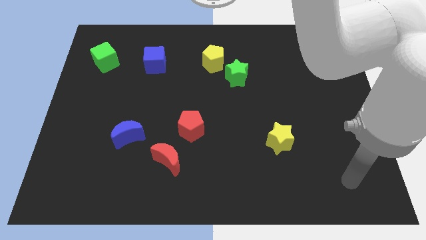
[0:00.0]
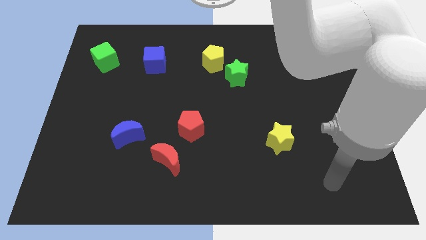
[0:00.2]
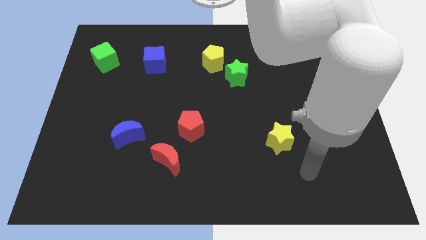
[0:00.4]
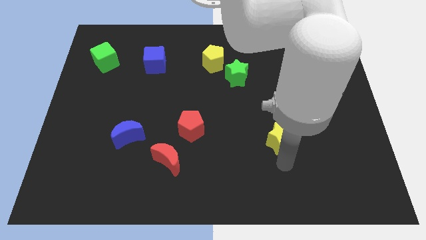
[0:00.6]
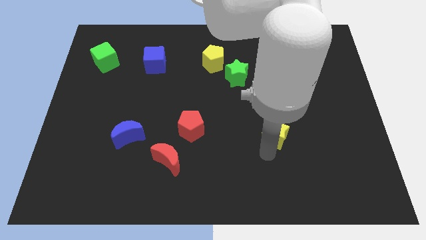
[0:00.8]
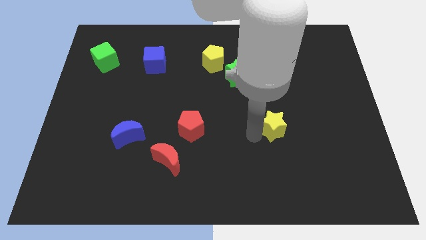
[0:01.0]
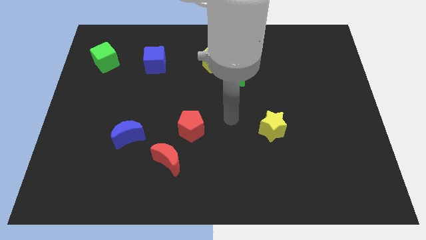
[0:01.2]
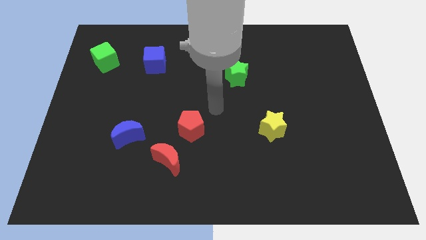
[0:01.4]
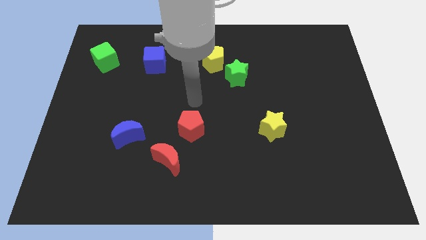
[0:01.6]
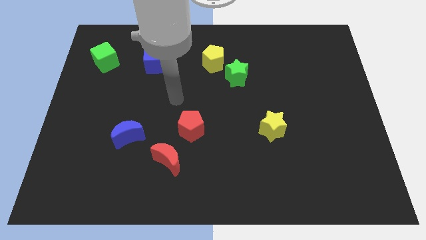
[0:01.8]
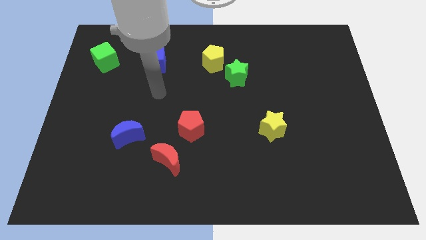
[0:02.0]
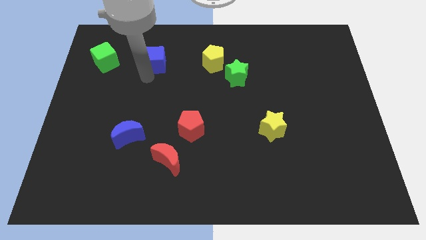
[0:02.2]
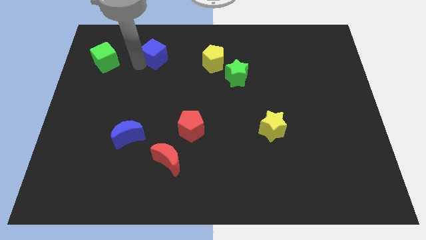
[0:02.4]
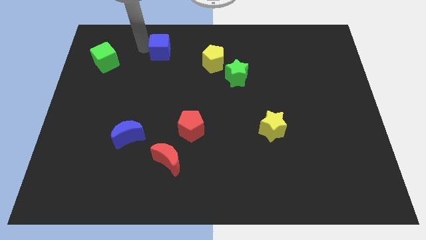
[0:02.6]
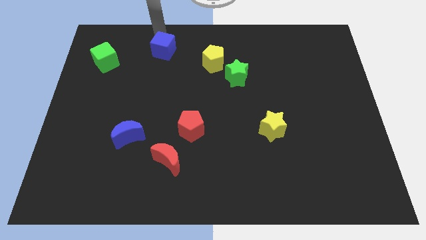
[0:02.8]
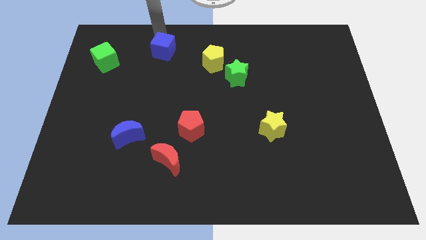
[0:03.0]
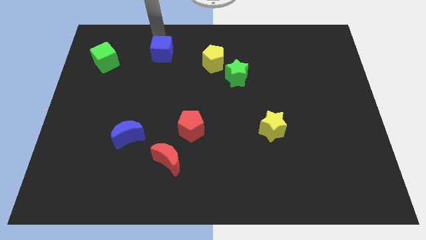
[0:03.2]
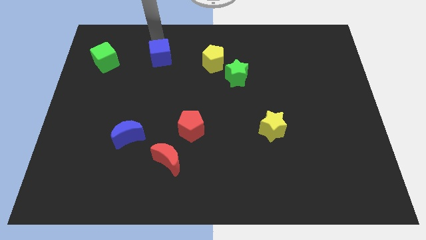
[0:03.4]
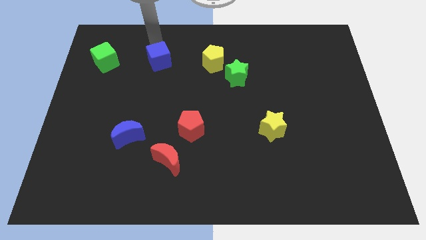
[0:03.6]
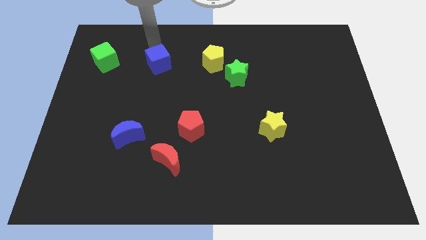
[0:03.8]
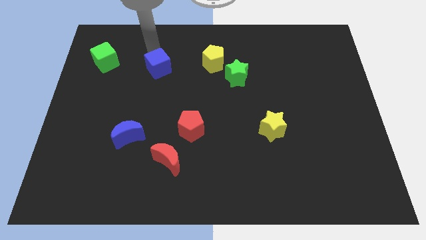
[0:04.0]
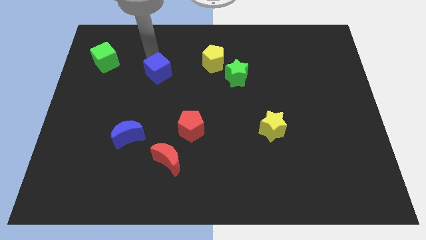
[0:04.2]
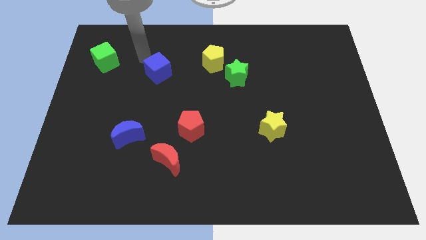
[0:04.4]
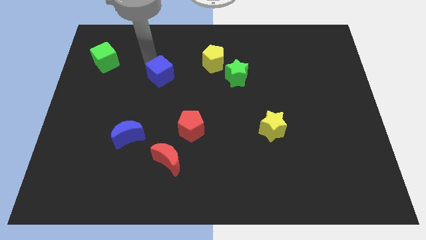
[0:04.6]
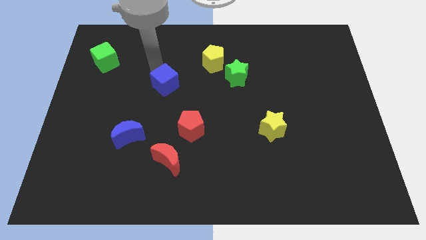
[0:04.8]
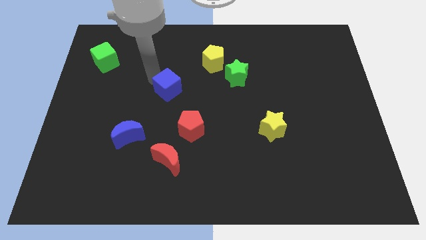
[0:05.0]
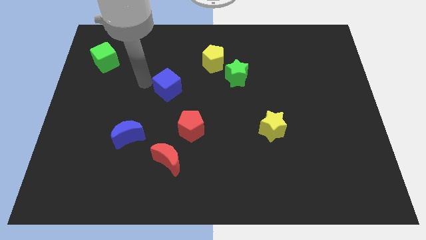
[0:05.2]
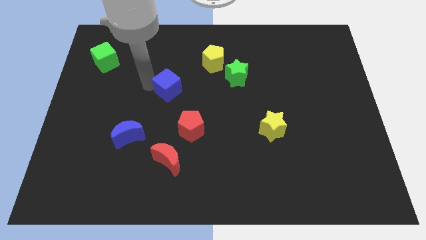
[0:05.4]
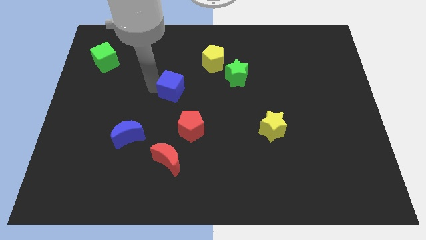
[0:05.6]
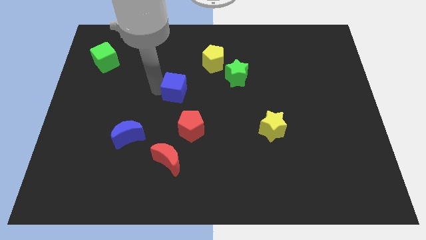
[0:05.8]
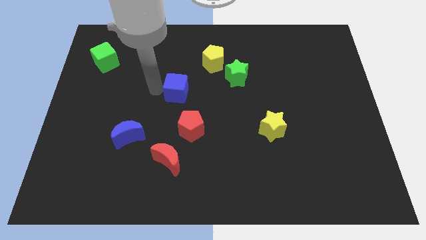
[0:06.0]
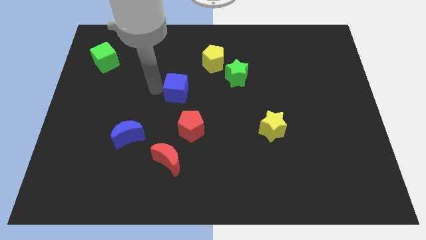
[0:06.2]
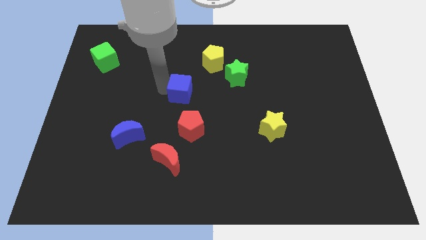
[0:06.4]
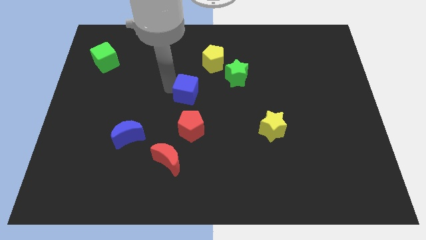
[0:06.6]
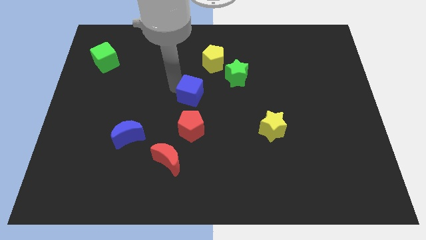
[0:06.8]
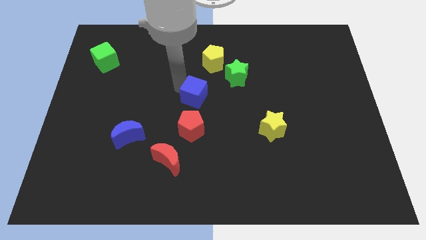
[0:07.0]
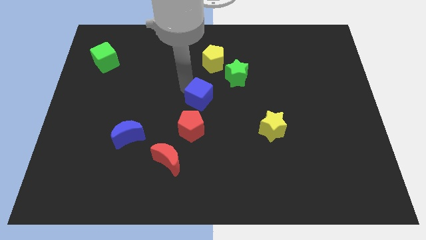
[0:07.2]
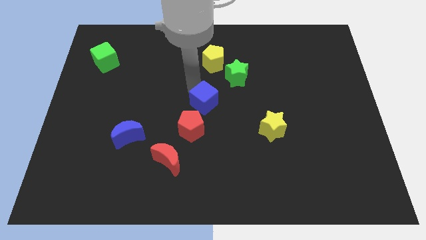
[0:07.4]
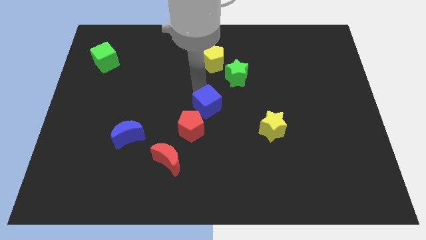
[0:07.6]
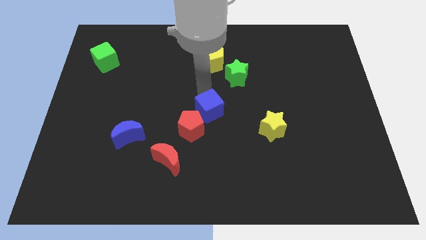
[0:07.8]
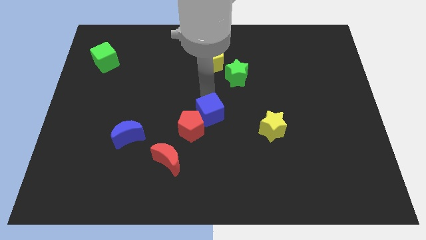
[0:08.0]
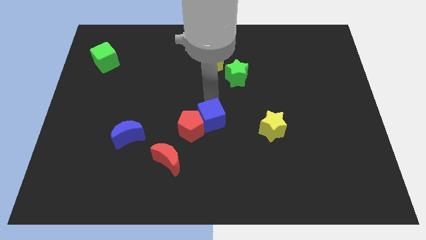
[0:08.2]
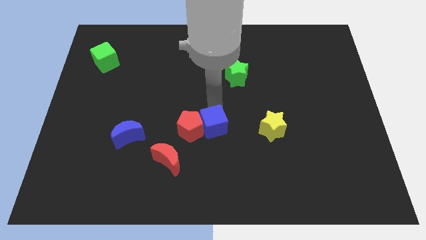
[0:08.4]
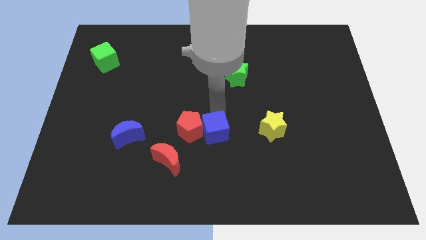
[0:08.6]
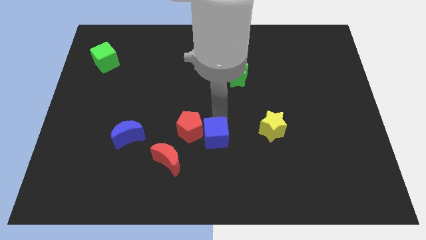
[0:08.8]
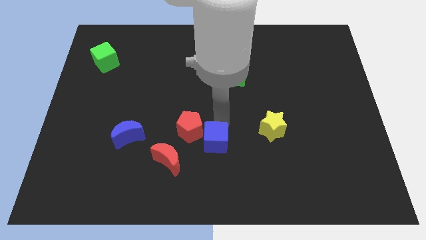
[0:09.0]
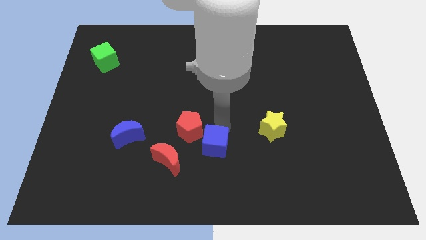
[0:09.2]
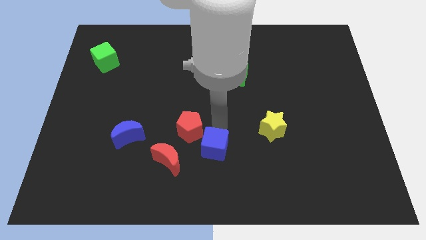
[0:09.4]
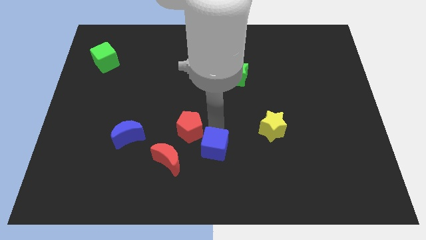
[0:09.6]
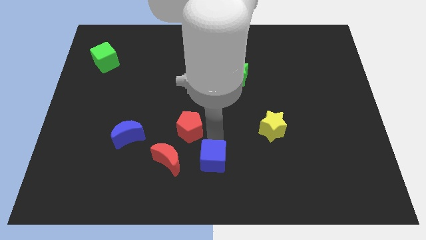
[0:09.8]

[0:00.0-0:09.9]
slide the blue cube to the bottom side
